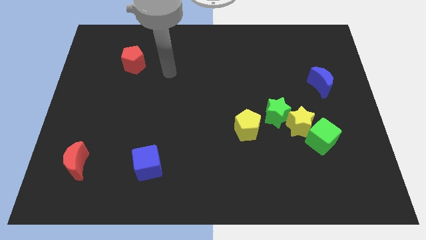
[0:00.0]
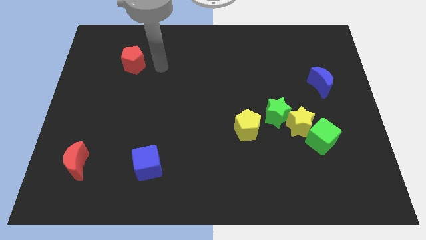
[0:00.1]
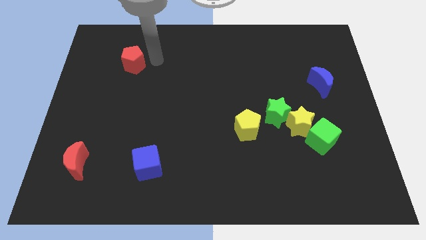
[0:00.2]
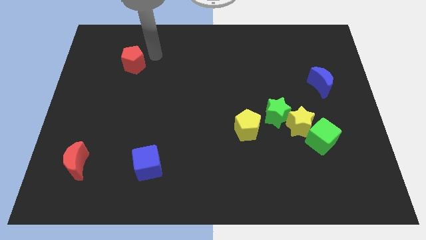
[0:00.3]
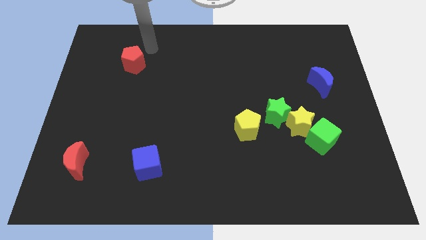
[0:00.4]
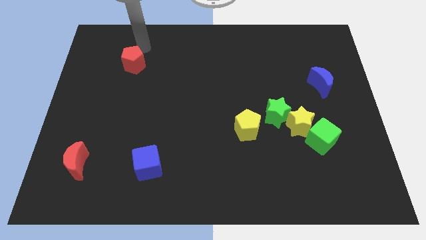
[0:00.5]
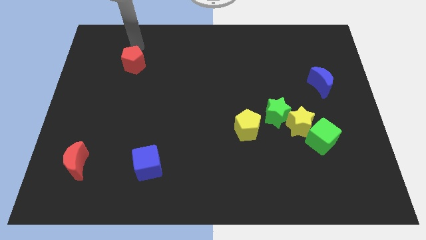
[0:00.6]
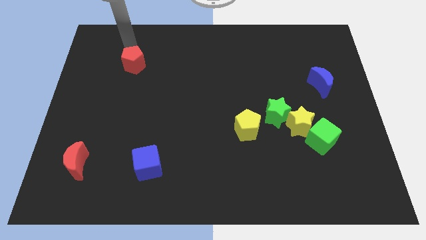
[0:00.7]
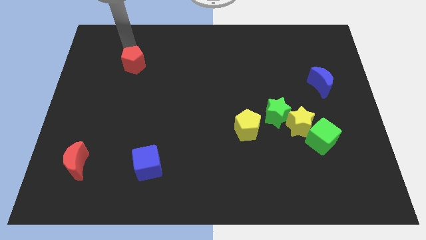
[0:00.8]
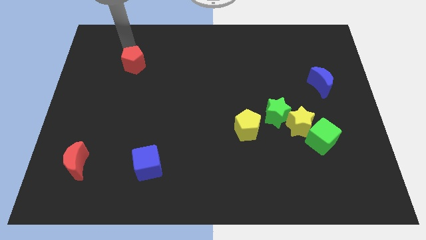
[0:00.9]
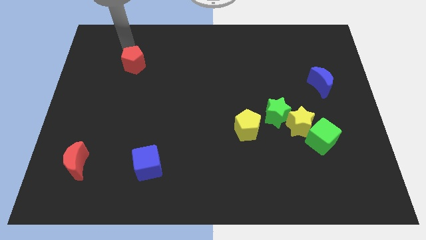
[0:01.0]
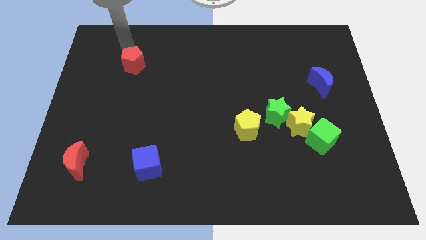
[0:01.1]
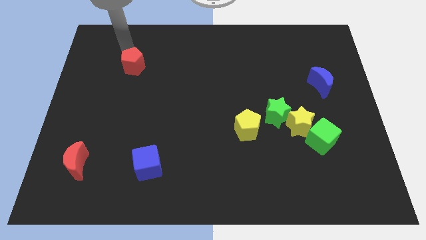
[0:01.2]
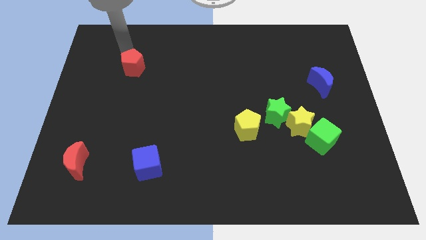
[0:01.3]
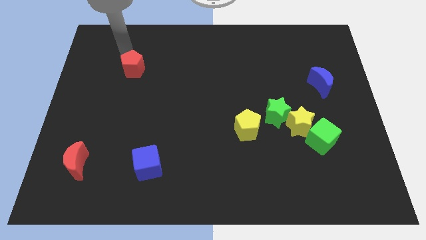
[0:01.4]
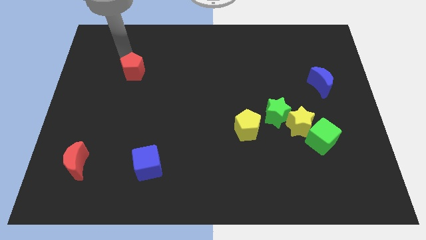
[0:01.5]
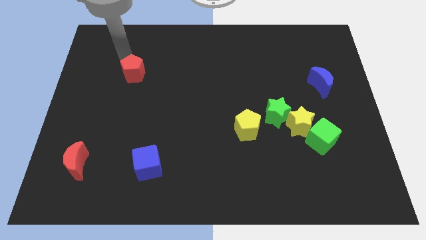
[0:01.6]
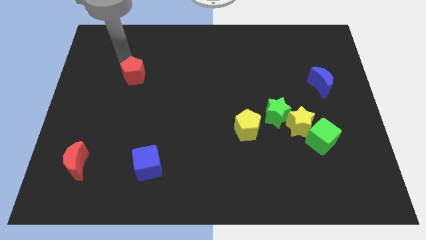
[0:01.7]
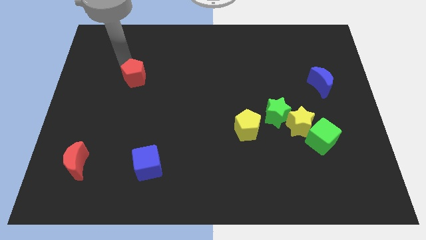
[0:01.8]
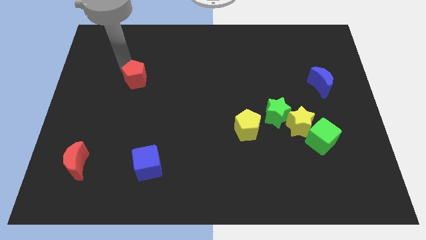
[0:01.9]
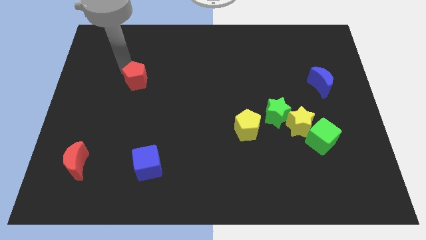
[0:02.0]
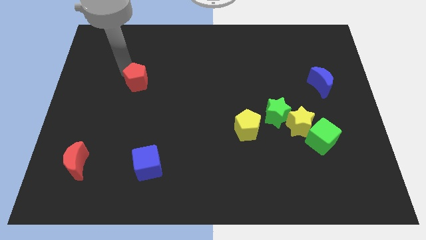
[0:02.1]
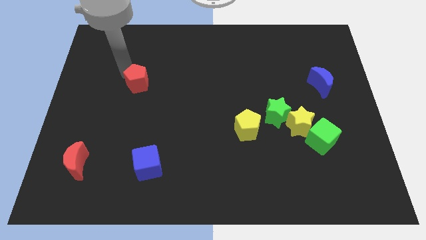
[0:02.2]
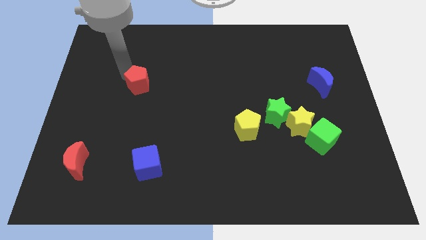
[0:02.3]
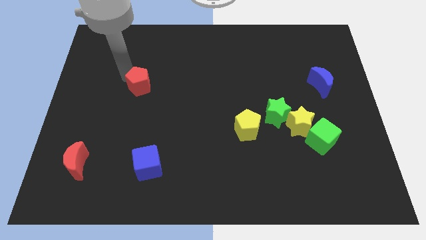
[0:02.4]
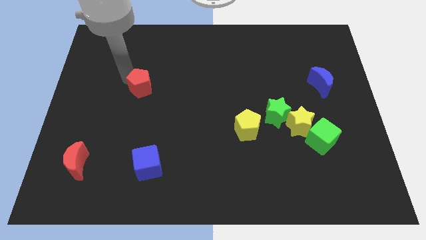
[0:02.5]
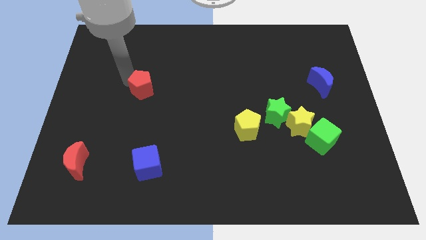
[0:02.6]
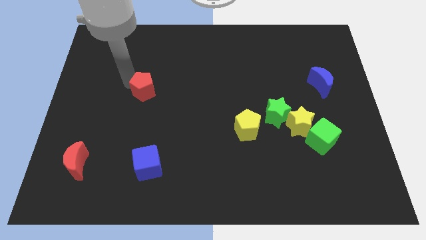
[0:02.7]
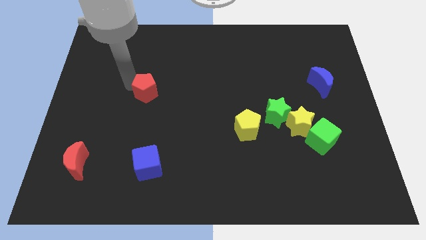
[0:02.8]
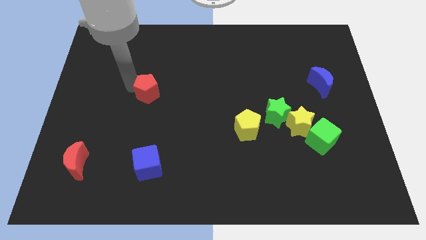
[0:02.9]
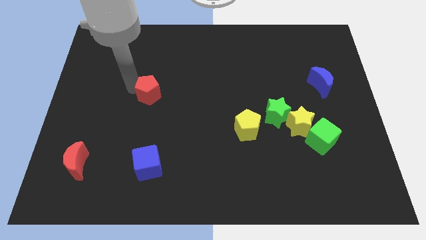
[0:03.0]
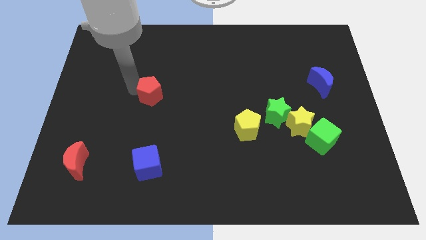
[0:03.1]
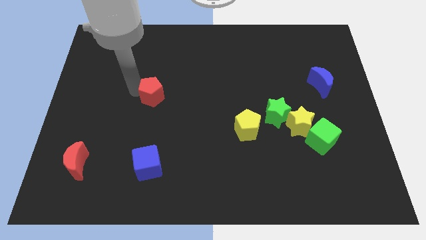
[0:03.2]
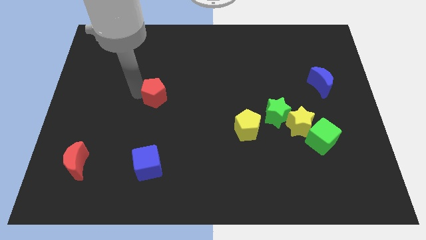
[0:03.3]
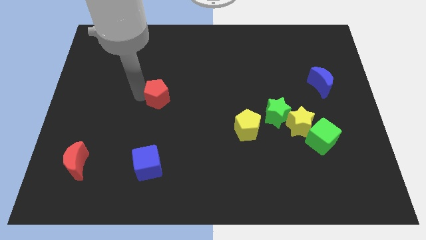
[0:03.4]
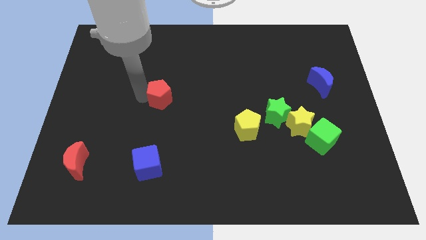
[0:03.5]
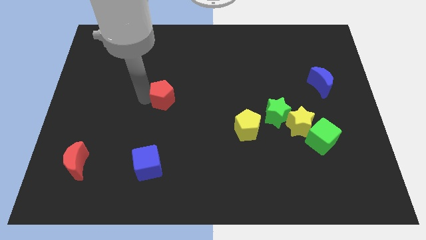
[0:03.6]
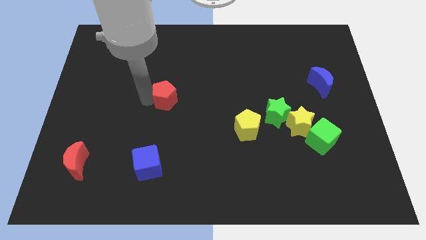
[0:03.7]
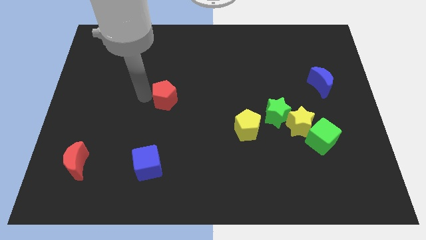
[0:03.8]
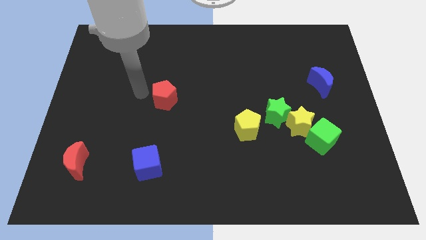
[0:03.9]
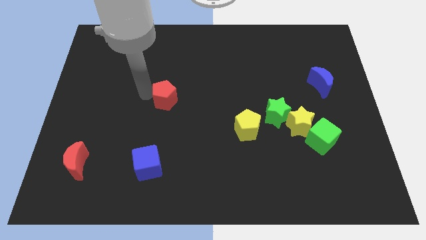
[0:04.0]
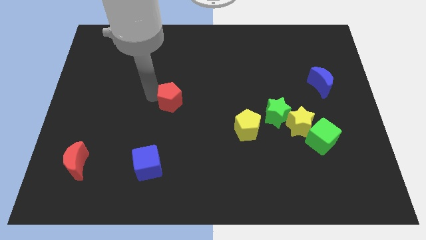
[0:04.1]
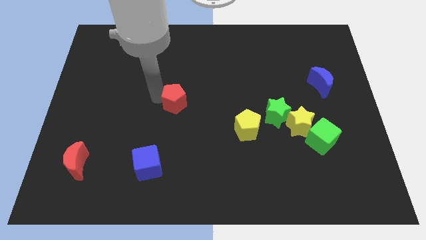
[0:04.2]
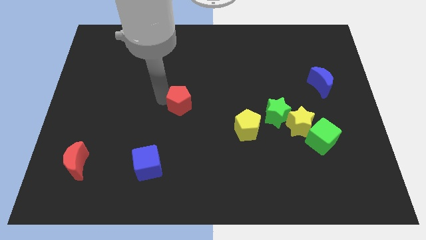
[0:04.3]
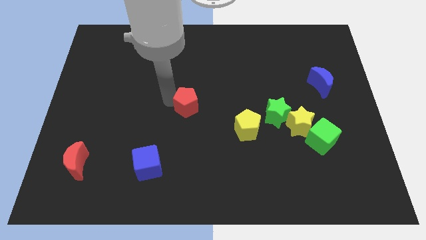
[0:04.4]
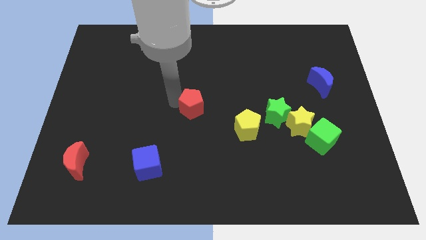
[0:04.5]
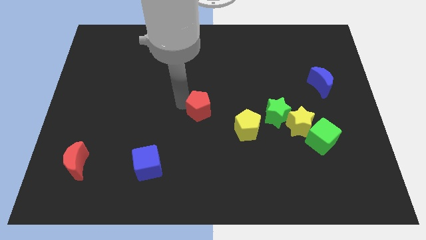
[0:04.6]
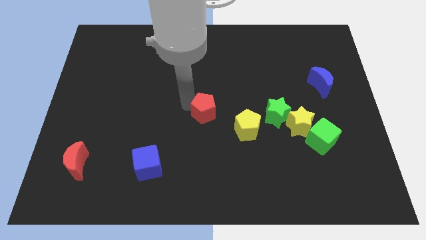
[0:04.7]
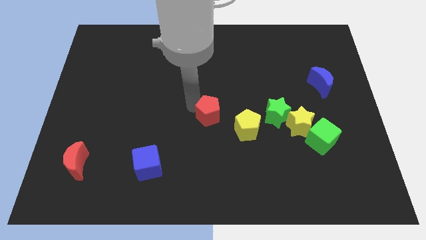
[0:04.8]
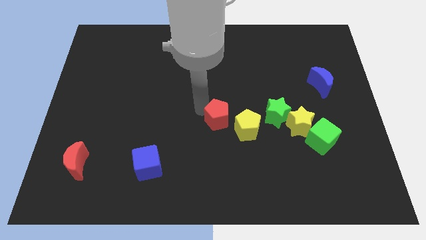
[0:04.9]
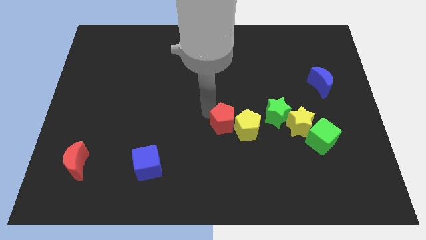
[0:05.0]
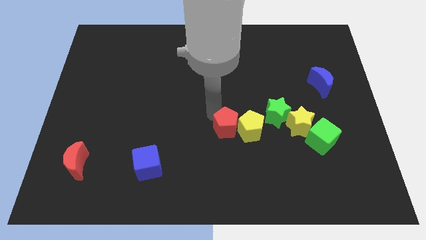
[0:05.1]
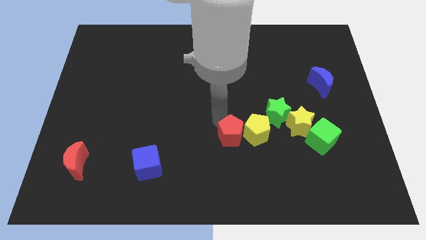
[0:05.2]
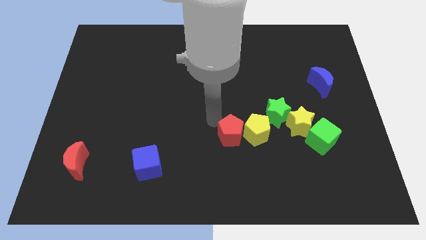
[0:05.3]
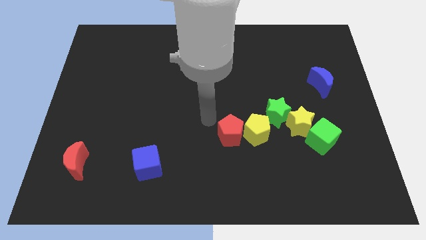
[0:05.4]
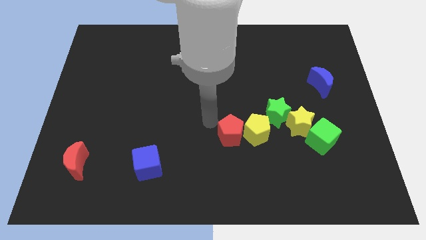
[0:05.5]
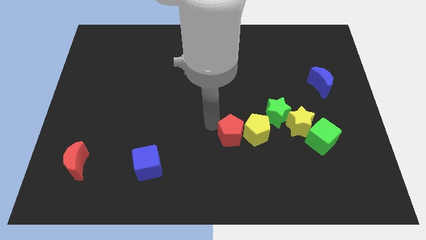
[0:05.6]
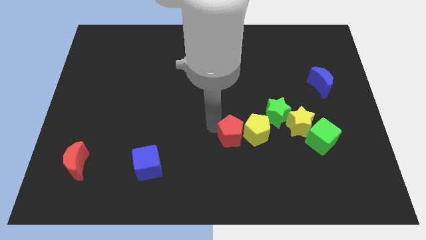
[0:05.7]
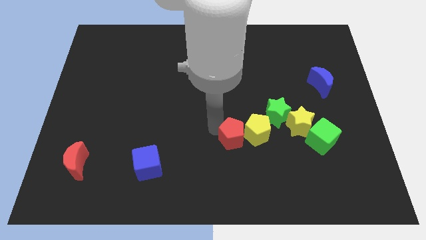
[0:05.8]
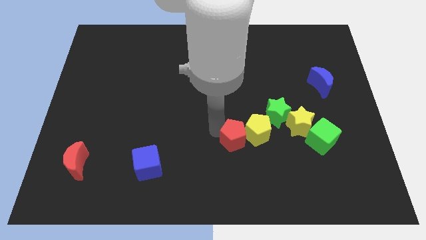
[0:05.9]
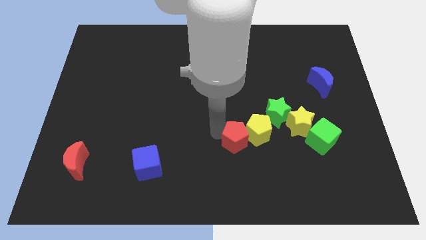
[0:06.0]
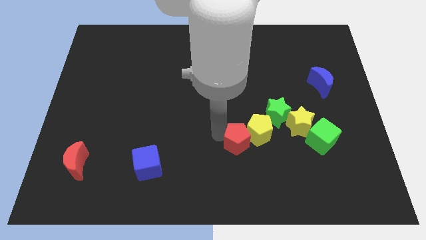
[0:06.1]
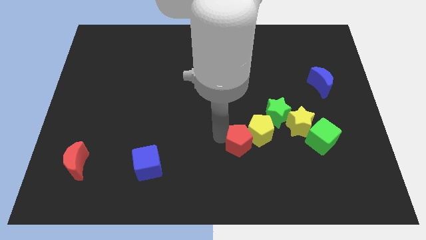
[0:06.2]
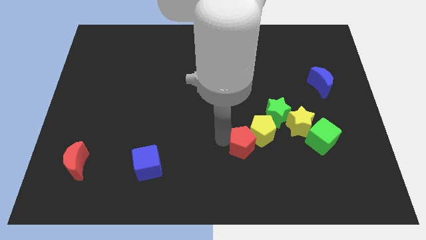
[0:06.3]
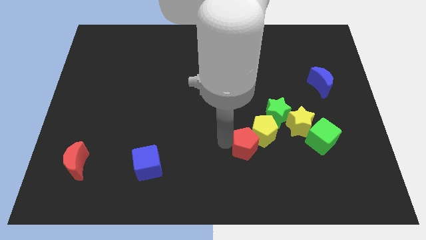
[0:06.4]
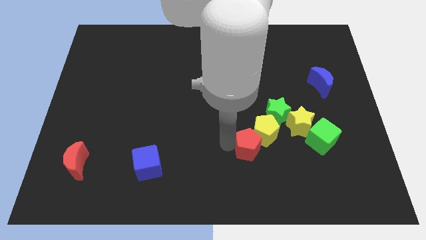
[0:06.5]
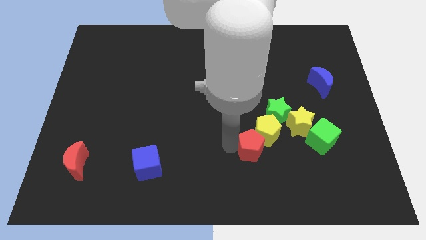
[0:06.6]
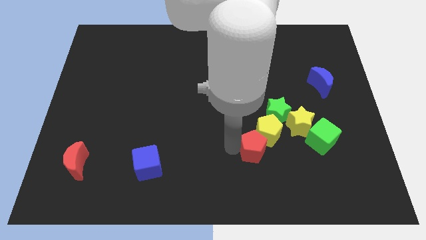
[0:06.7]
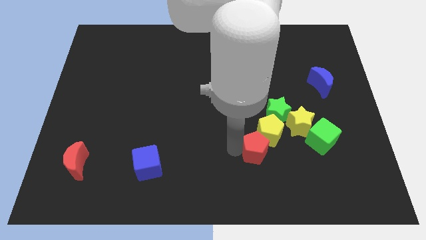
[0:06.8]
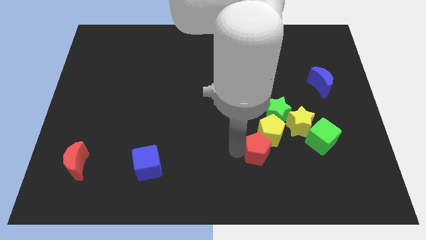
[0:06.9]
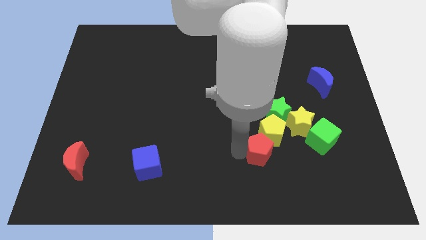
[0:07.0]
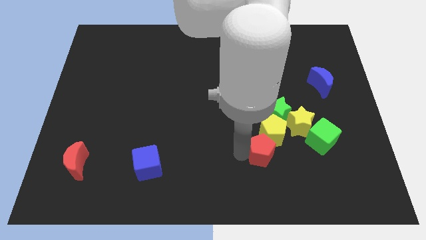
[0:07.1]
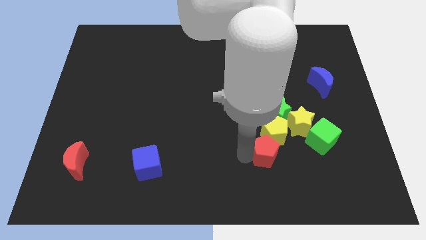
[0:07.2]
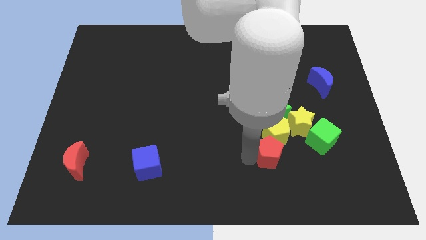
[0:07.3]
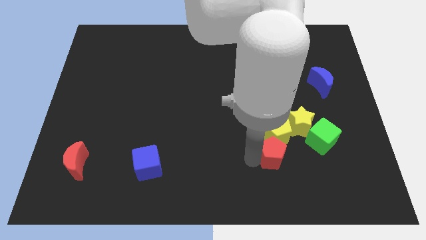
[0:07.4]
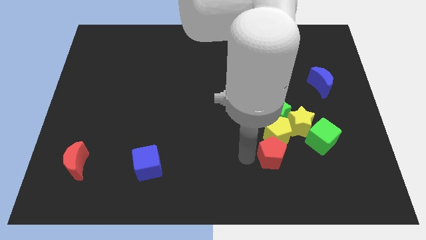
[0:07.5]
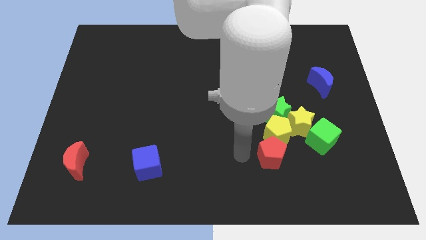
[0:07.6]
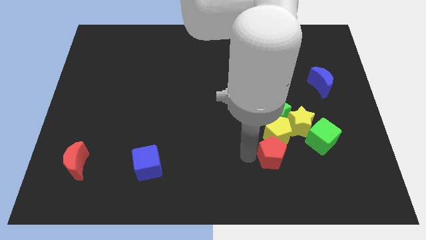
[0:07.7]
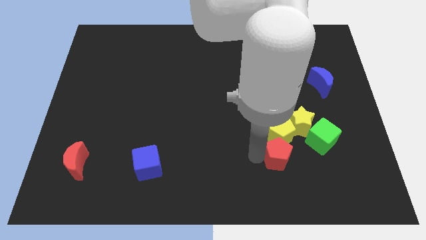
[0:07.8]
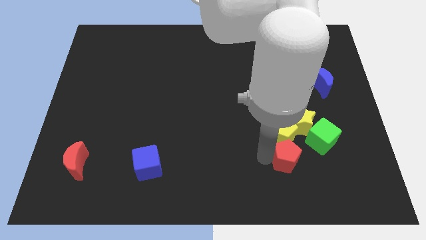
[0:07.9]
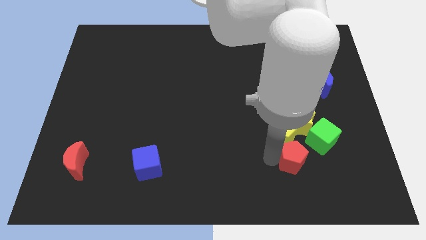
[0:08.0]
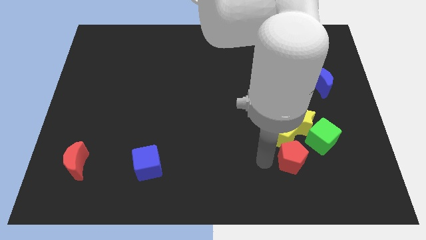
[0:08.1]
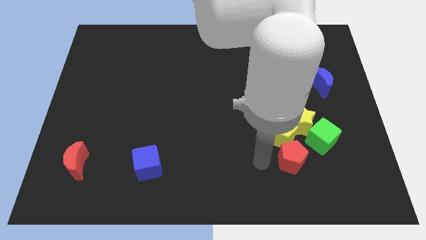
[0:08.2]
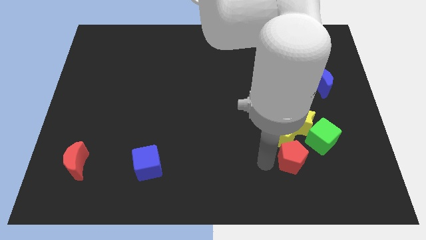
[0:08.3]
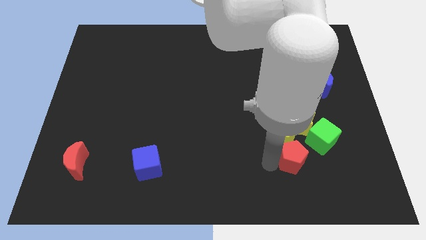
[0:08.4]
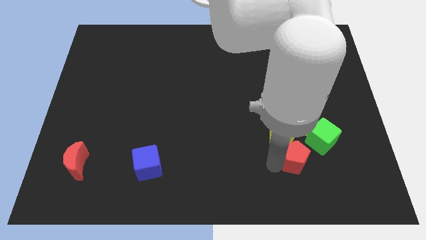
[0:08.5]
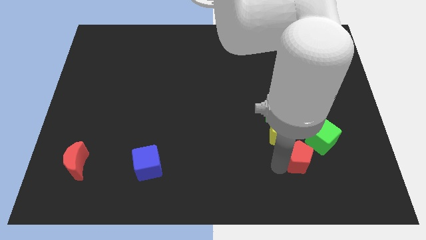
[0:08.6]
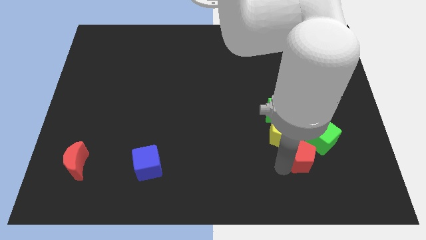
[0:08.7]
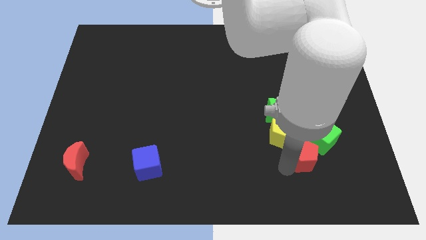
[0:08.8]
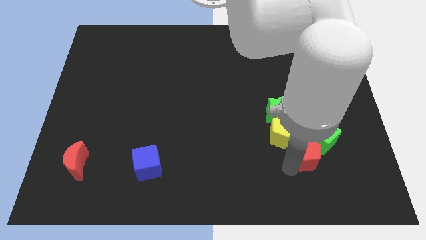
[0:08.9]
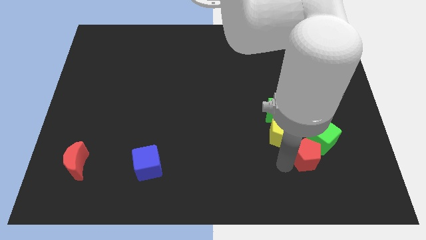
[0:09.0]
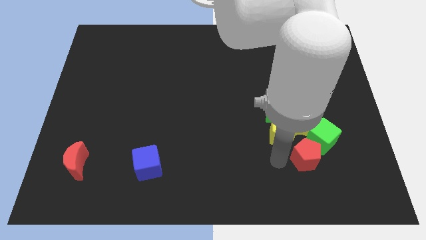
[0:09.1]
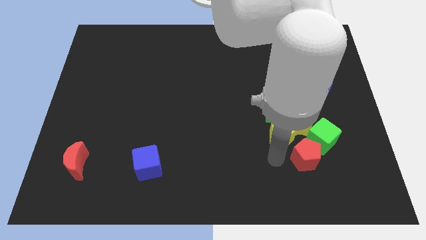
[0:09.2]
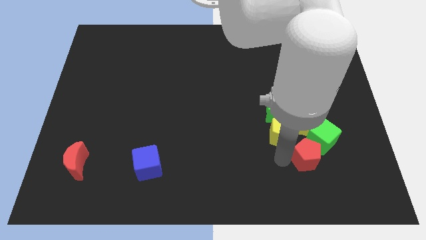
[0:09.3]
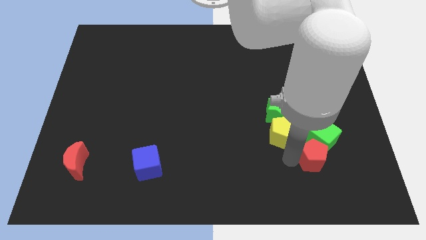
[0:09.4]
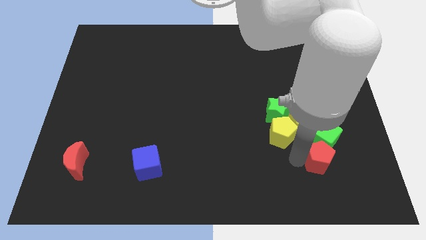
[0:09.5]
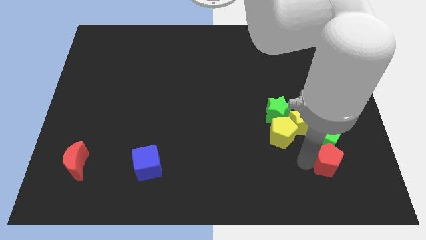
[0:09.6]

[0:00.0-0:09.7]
push the red pentagon to the bottom right of the yellow star
